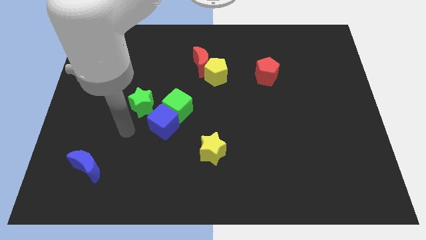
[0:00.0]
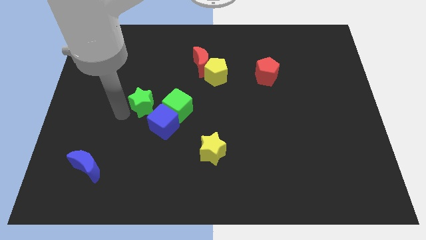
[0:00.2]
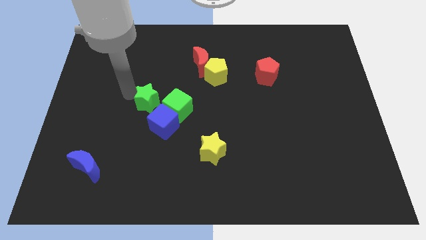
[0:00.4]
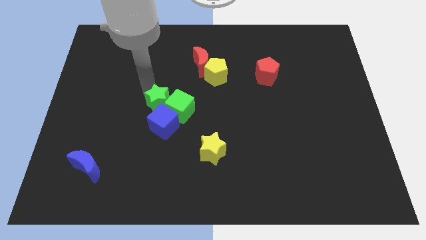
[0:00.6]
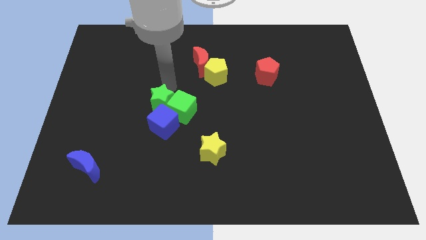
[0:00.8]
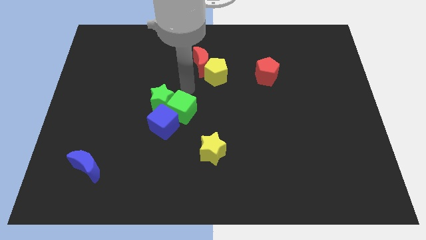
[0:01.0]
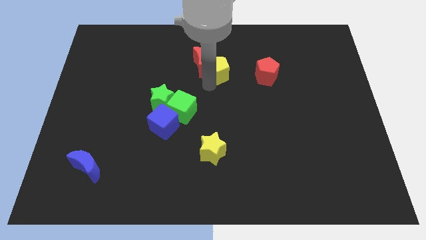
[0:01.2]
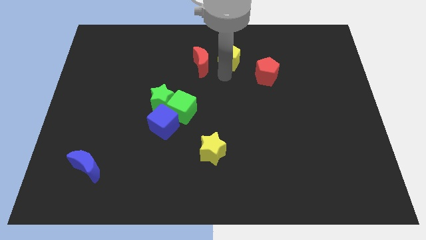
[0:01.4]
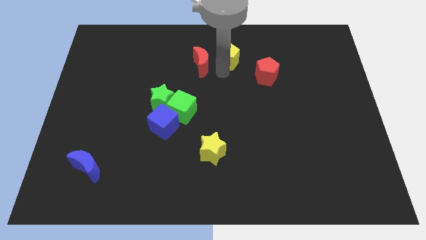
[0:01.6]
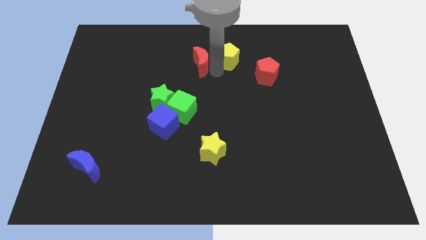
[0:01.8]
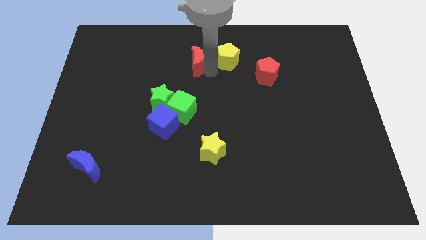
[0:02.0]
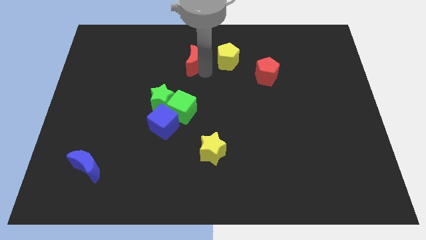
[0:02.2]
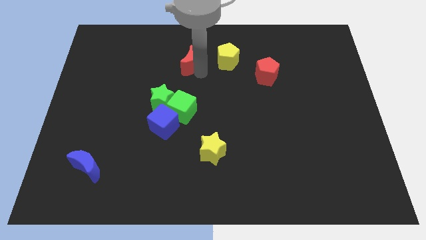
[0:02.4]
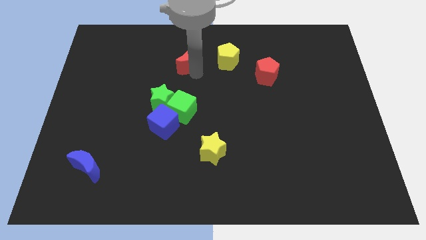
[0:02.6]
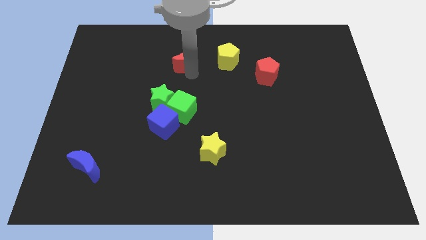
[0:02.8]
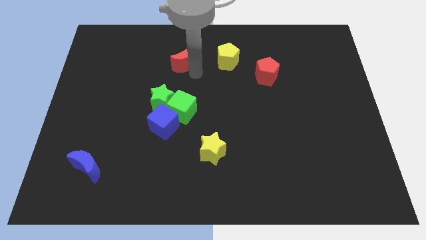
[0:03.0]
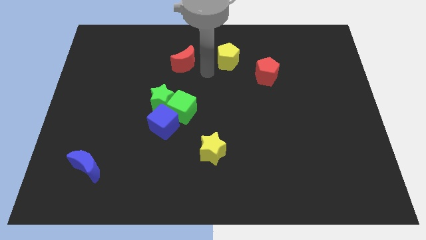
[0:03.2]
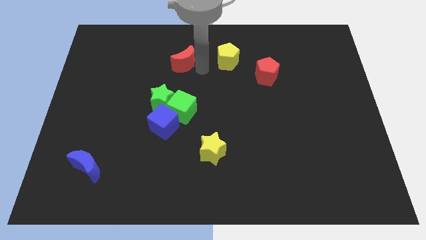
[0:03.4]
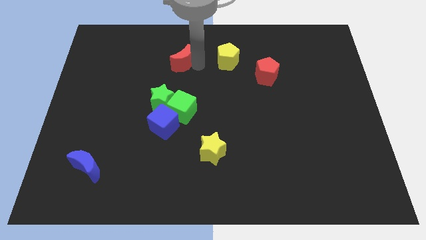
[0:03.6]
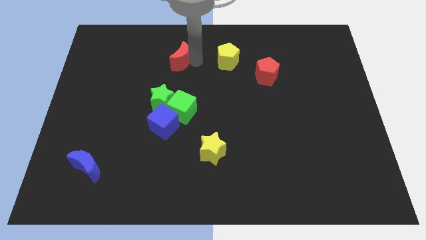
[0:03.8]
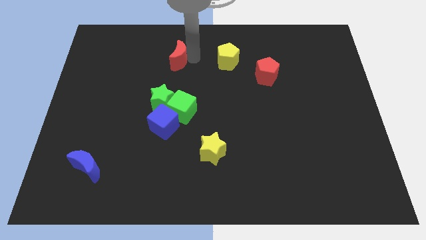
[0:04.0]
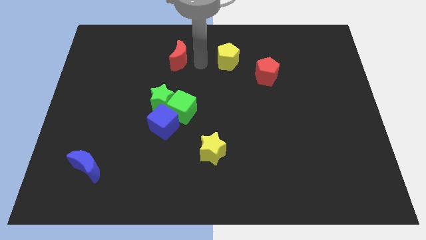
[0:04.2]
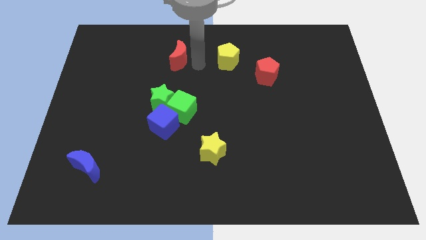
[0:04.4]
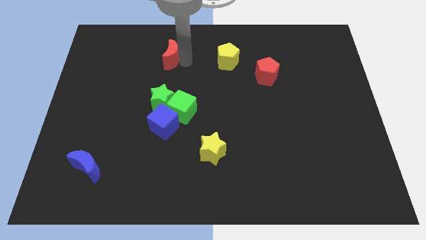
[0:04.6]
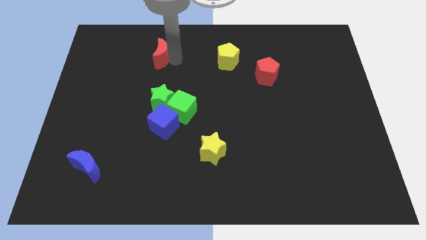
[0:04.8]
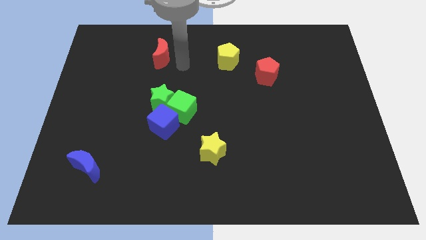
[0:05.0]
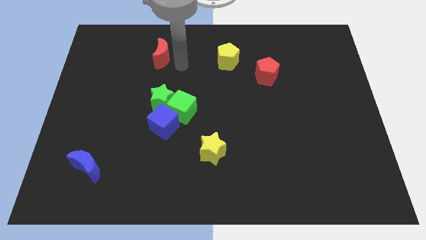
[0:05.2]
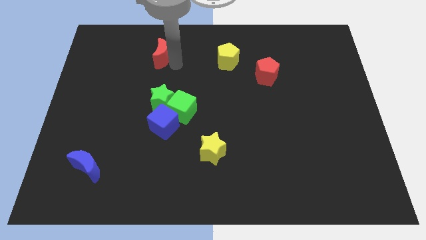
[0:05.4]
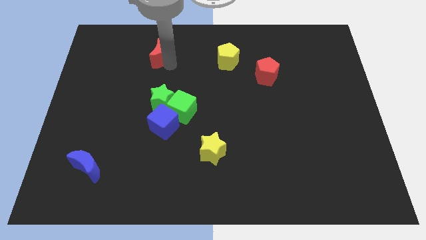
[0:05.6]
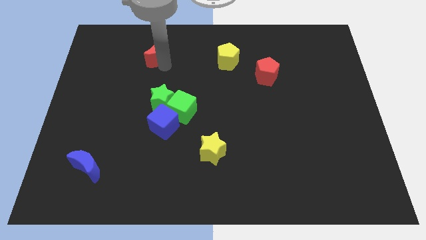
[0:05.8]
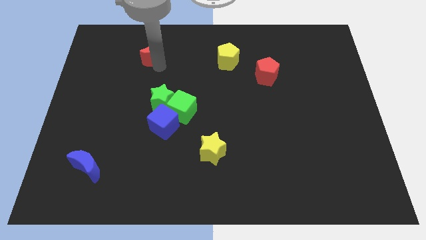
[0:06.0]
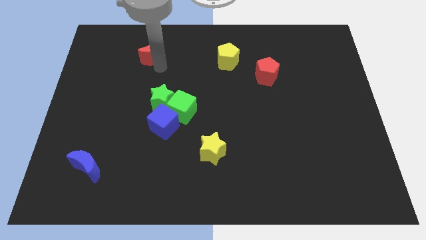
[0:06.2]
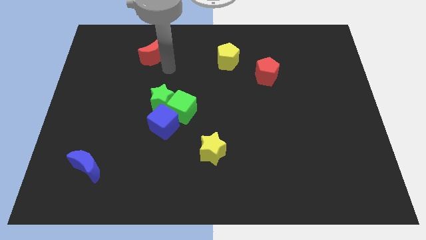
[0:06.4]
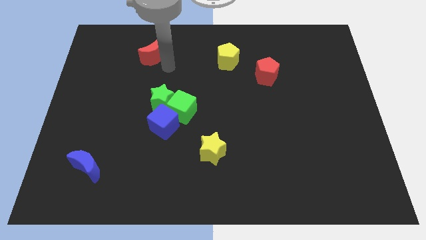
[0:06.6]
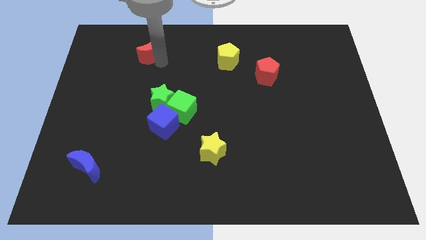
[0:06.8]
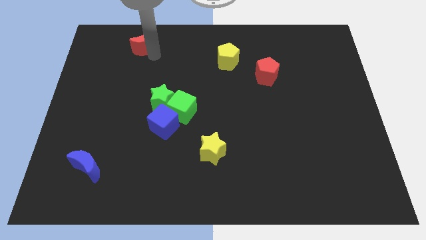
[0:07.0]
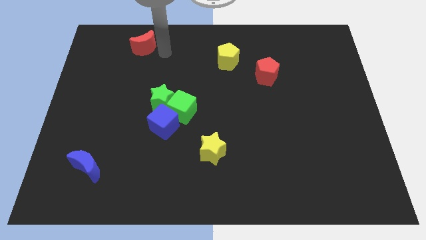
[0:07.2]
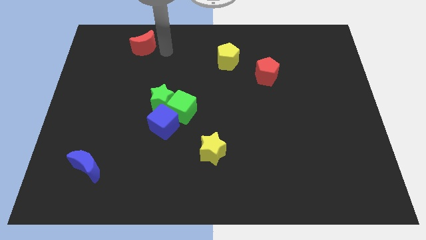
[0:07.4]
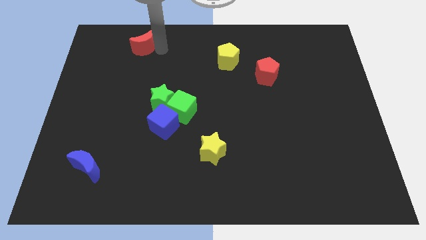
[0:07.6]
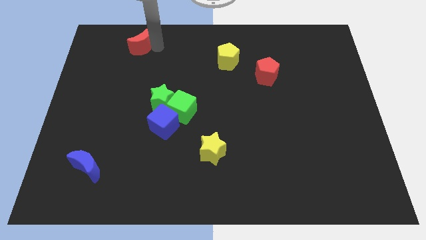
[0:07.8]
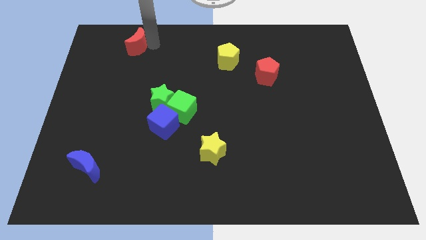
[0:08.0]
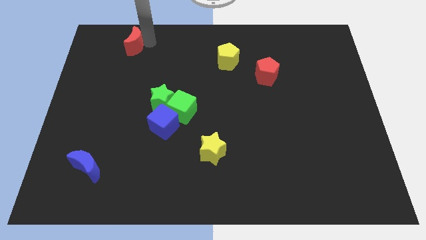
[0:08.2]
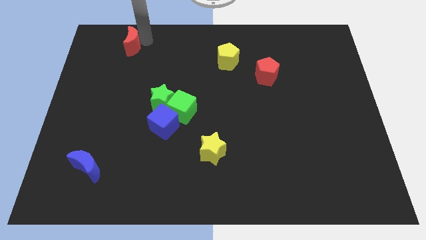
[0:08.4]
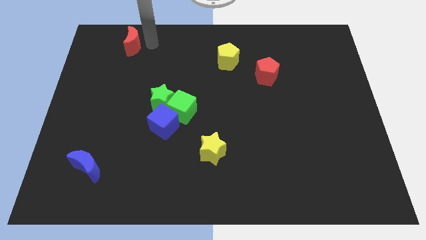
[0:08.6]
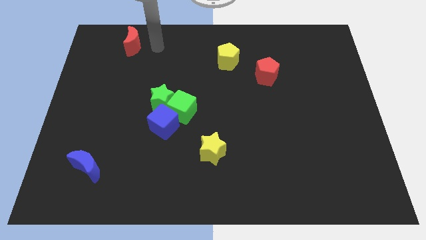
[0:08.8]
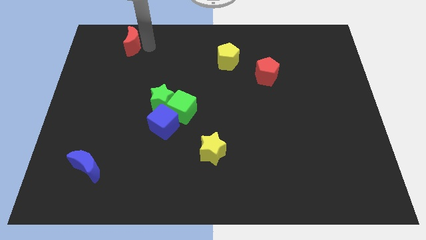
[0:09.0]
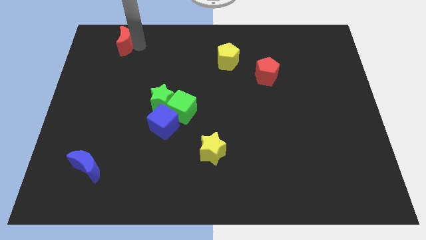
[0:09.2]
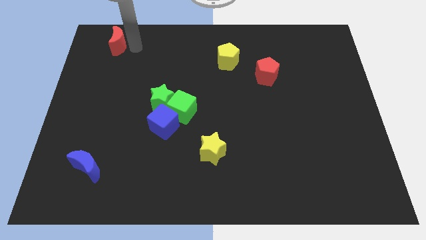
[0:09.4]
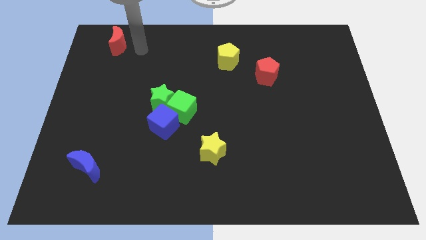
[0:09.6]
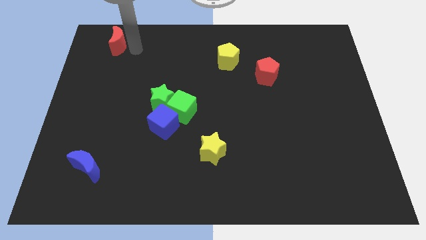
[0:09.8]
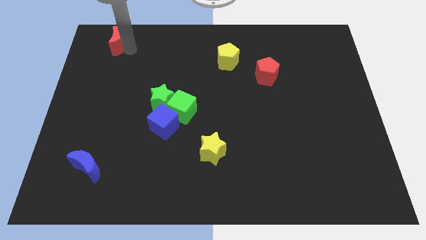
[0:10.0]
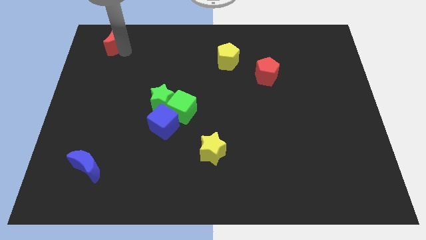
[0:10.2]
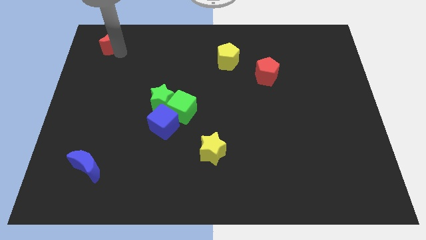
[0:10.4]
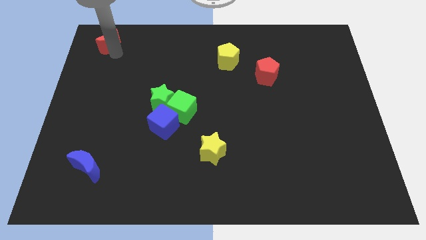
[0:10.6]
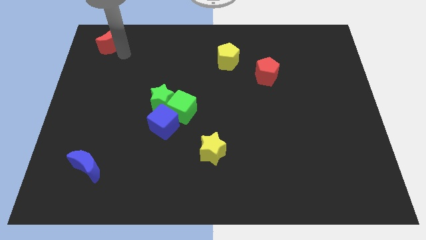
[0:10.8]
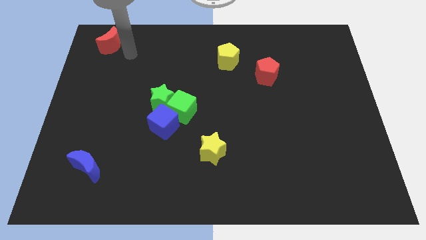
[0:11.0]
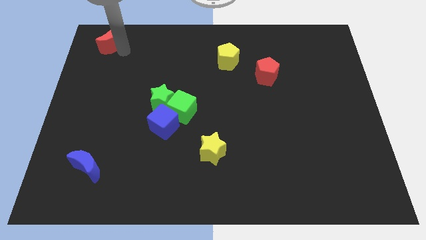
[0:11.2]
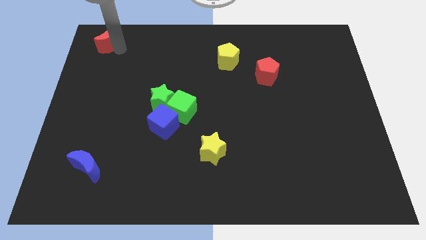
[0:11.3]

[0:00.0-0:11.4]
put the red moon to the upper left corner

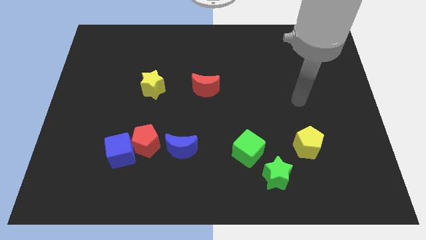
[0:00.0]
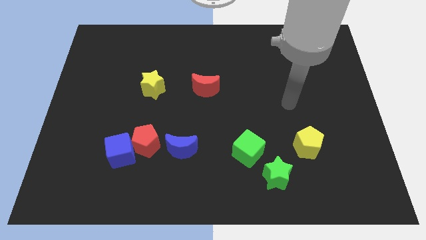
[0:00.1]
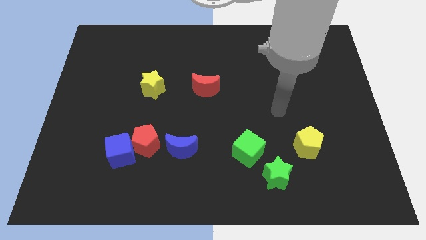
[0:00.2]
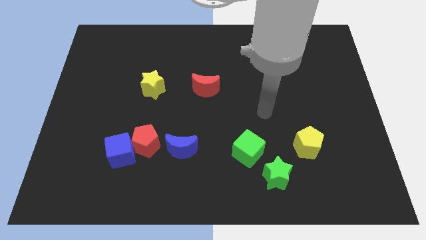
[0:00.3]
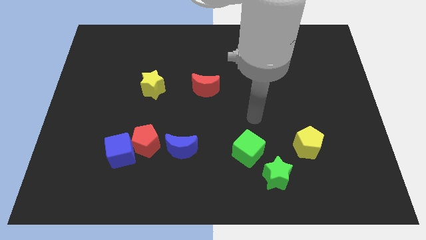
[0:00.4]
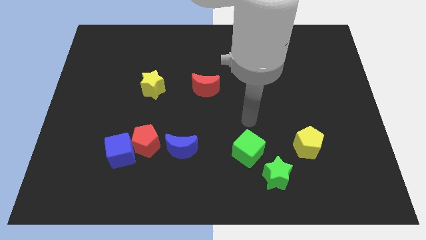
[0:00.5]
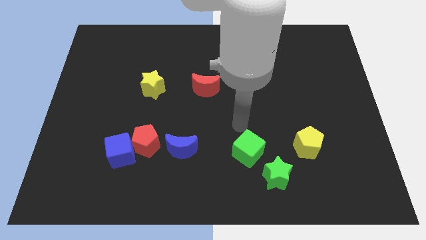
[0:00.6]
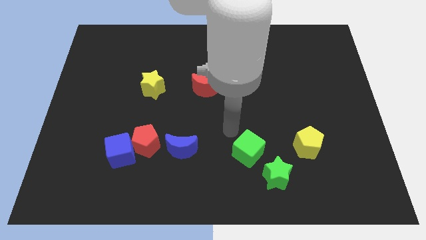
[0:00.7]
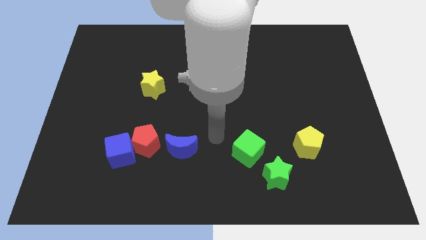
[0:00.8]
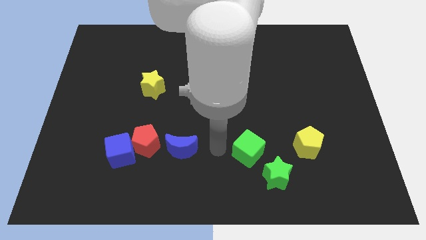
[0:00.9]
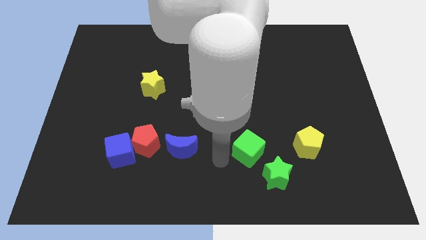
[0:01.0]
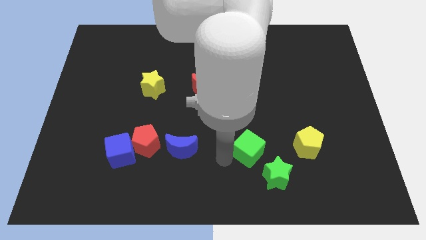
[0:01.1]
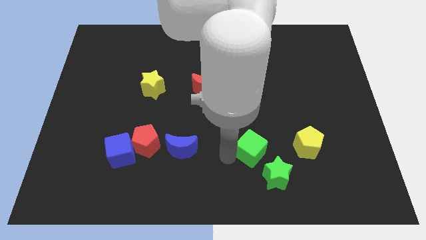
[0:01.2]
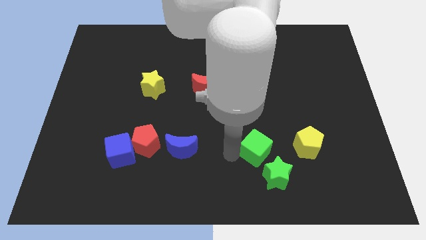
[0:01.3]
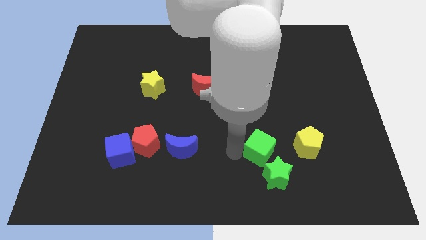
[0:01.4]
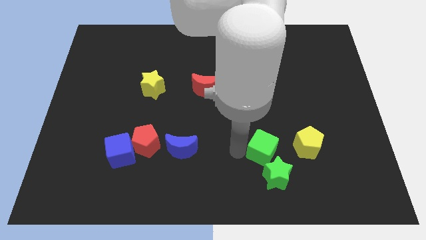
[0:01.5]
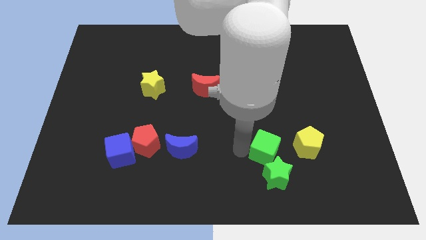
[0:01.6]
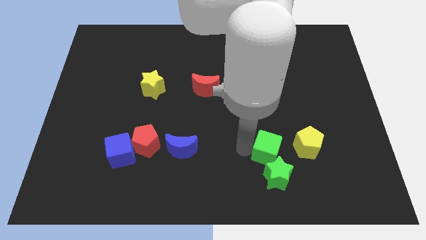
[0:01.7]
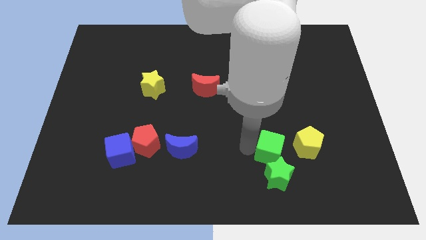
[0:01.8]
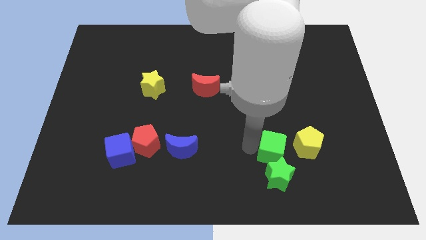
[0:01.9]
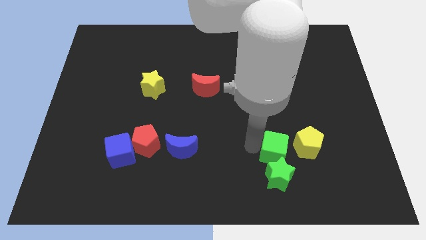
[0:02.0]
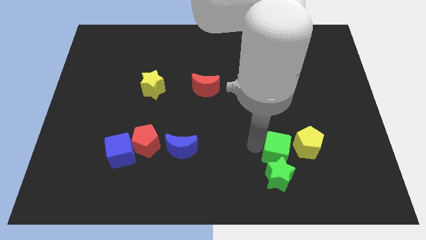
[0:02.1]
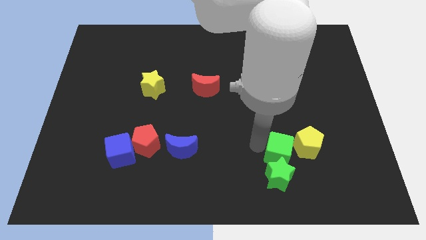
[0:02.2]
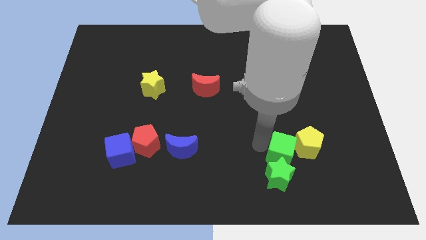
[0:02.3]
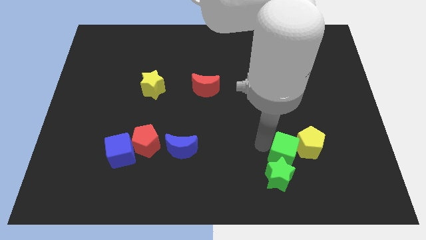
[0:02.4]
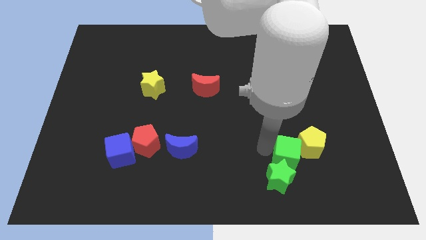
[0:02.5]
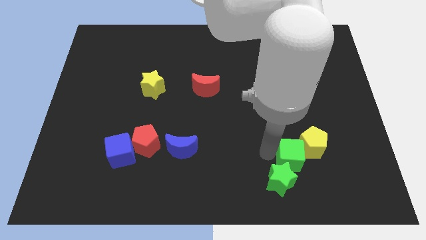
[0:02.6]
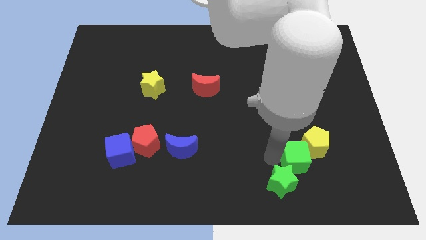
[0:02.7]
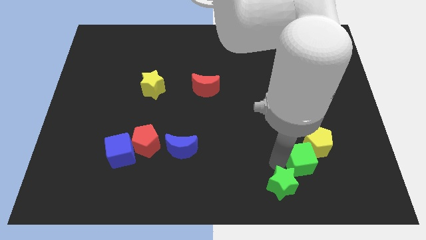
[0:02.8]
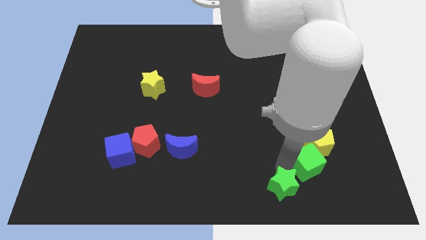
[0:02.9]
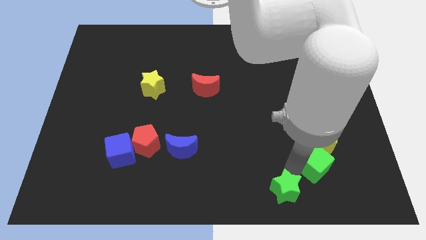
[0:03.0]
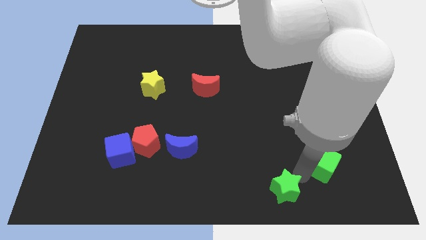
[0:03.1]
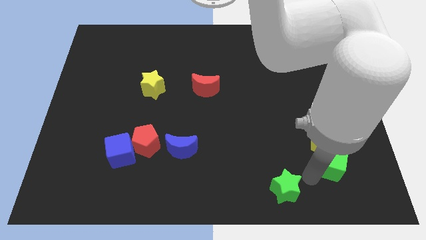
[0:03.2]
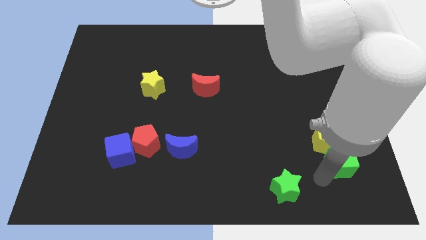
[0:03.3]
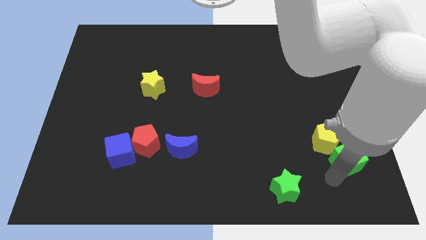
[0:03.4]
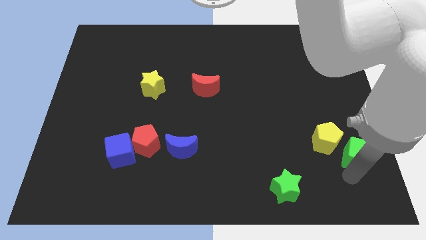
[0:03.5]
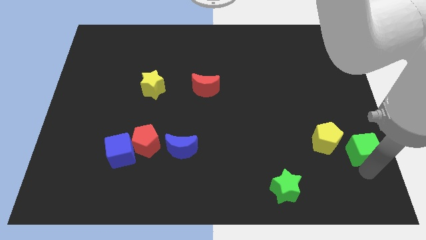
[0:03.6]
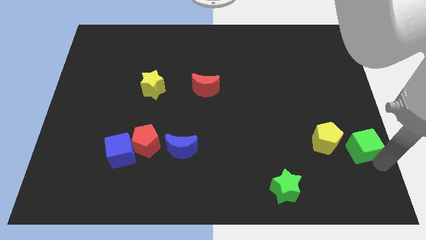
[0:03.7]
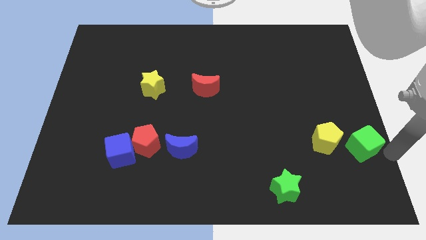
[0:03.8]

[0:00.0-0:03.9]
move the green cube to the right side
